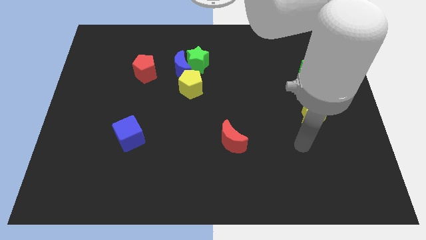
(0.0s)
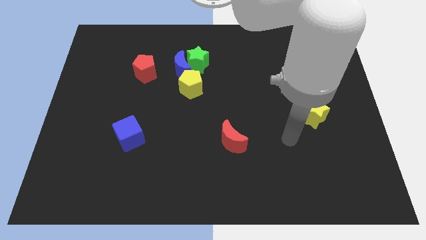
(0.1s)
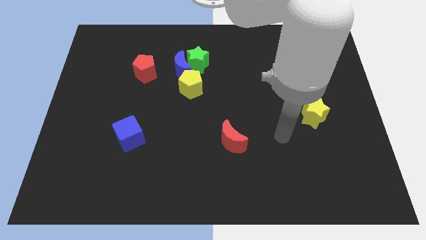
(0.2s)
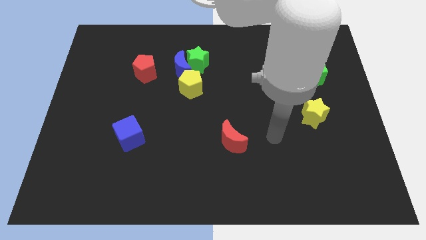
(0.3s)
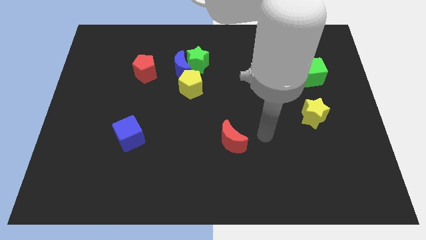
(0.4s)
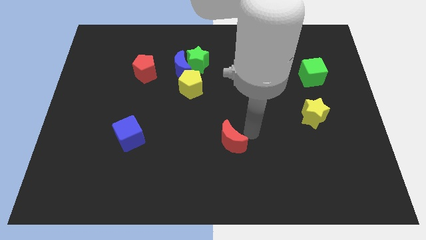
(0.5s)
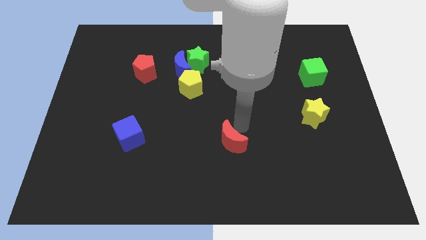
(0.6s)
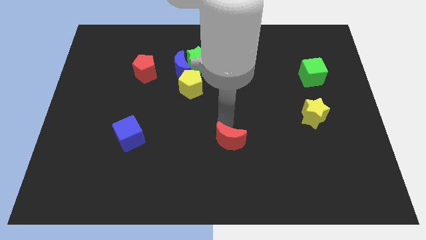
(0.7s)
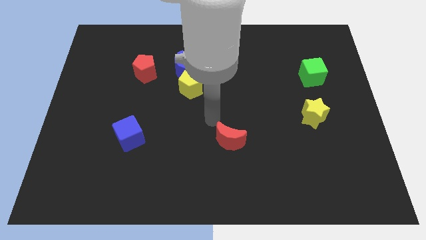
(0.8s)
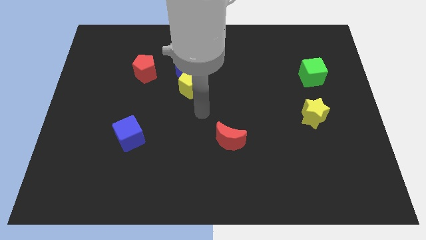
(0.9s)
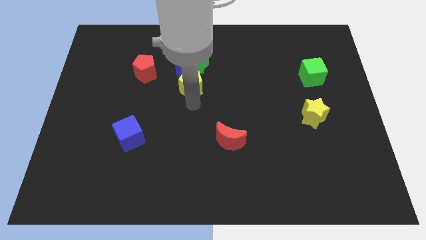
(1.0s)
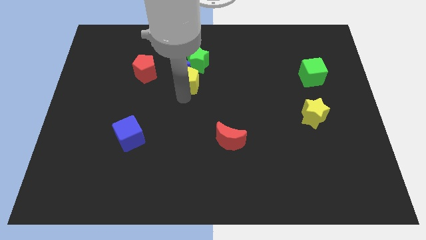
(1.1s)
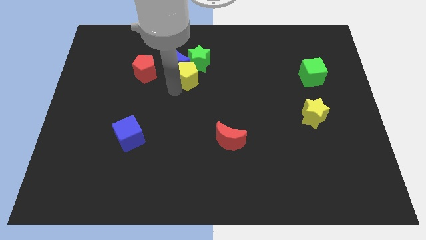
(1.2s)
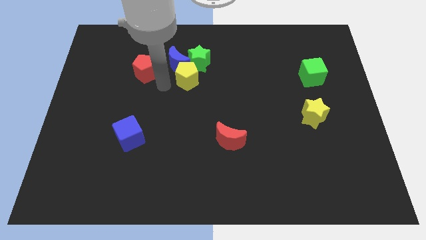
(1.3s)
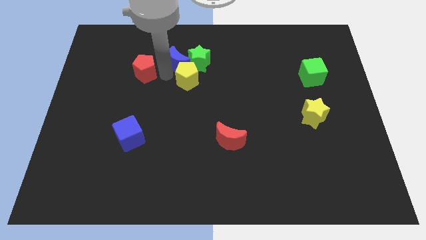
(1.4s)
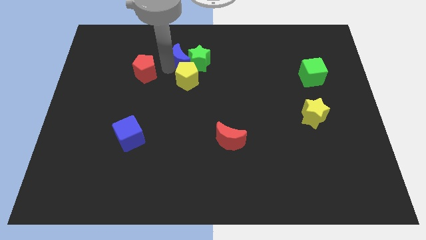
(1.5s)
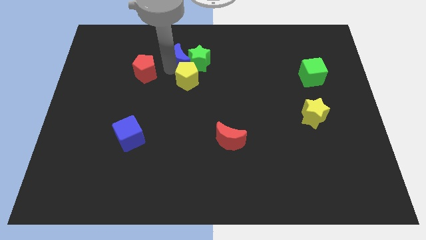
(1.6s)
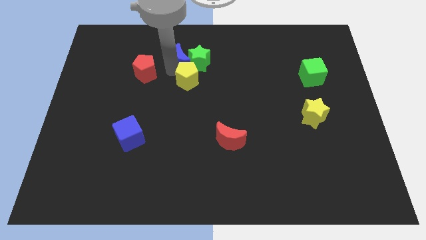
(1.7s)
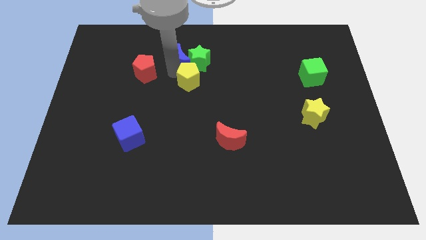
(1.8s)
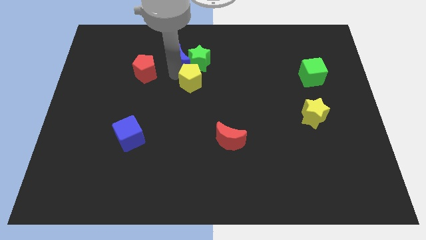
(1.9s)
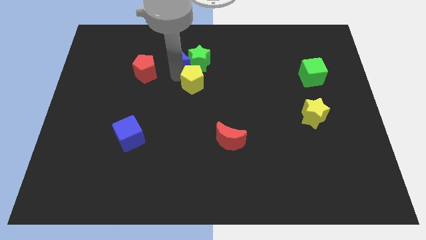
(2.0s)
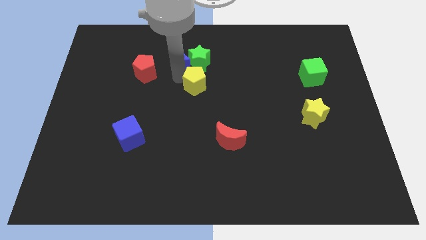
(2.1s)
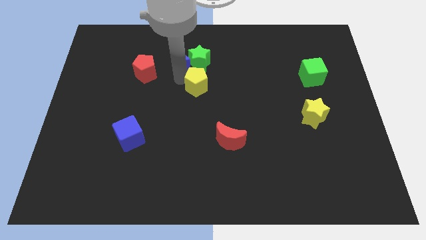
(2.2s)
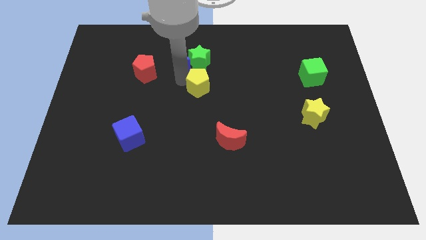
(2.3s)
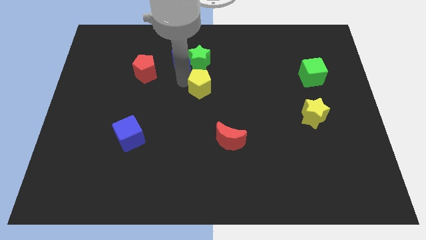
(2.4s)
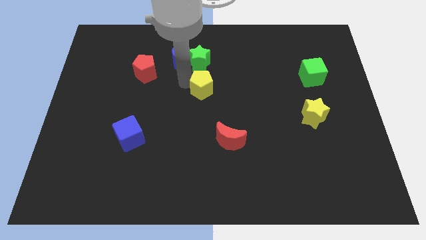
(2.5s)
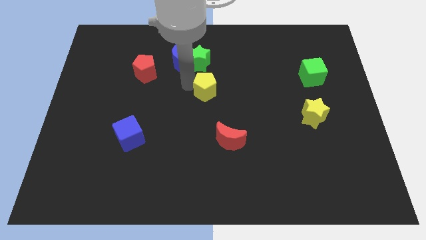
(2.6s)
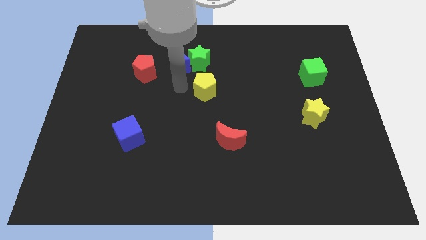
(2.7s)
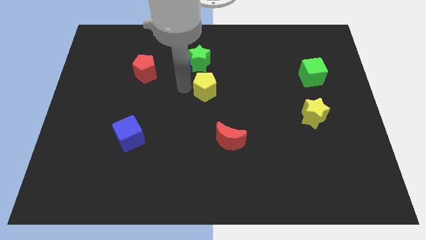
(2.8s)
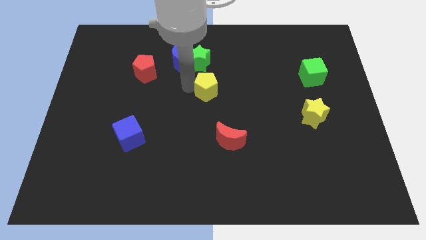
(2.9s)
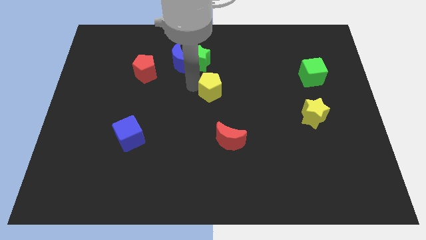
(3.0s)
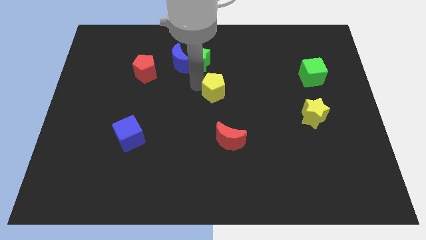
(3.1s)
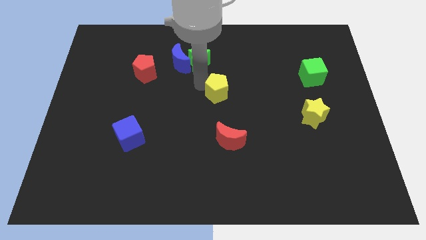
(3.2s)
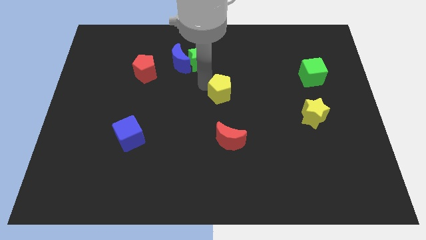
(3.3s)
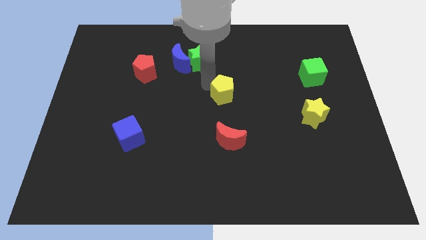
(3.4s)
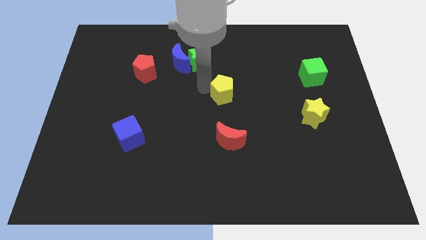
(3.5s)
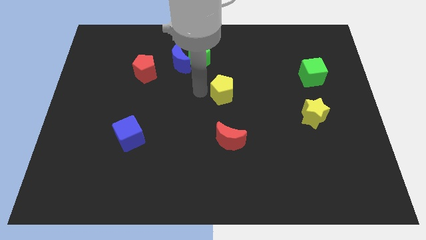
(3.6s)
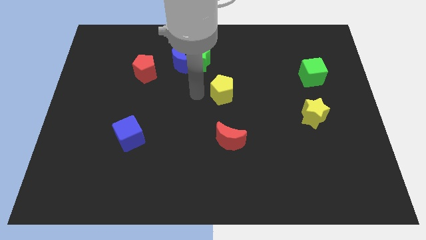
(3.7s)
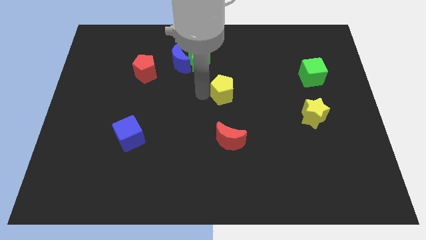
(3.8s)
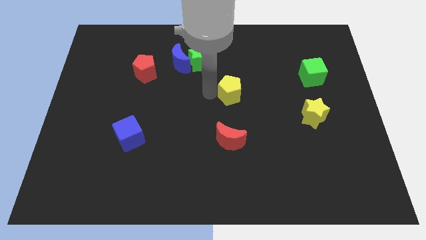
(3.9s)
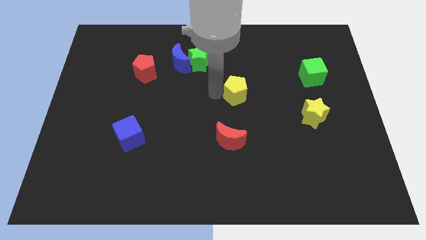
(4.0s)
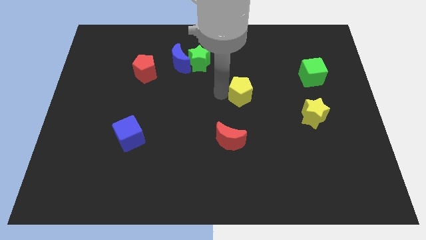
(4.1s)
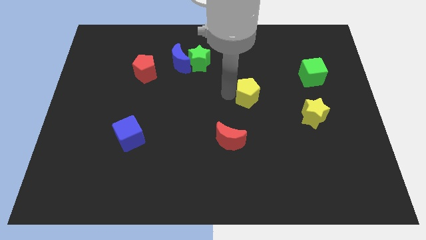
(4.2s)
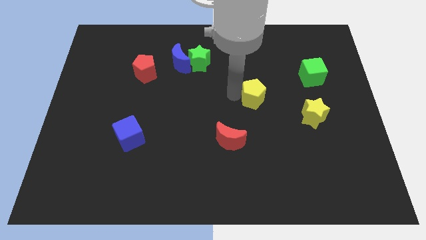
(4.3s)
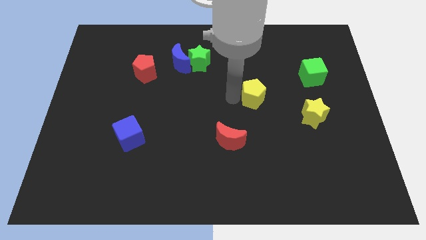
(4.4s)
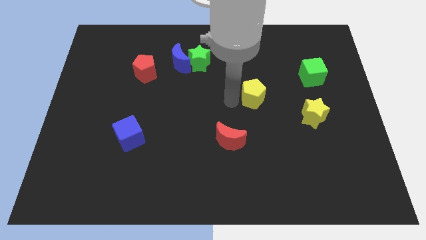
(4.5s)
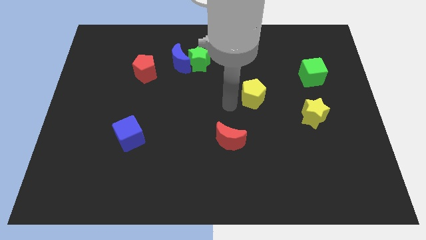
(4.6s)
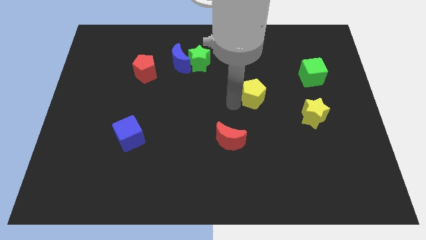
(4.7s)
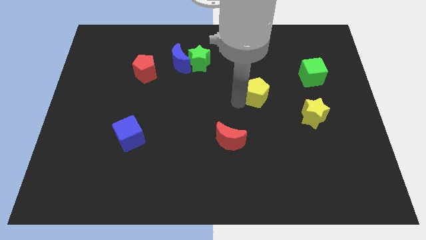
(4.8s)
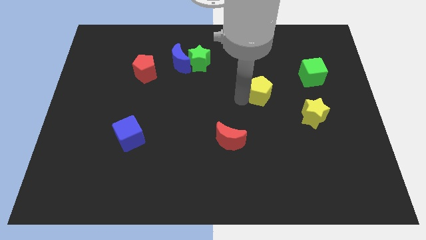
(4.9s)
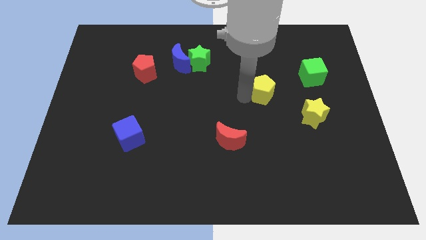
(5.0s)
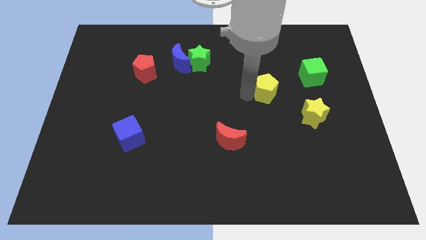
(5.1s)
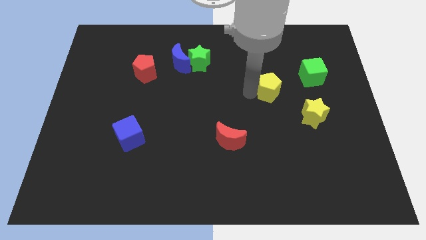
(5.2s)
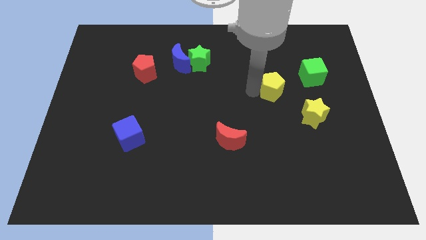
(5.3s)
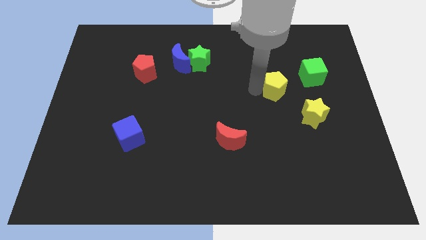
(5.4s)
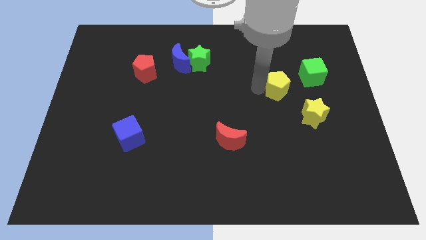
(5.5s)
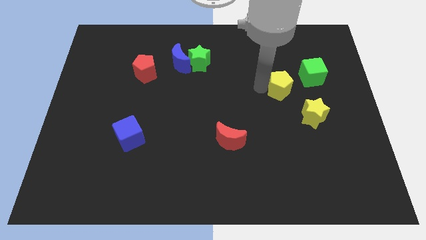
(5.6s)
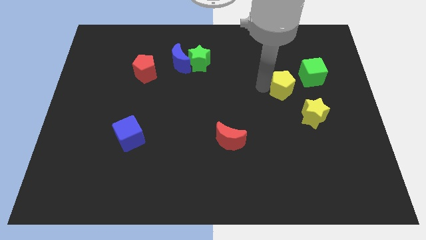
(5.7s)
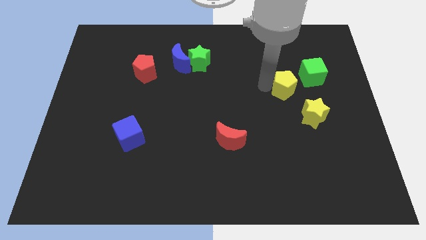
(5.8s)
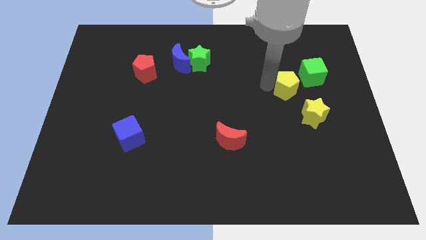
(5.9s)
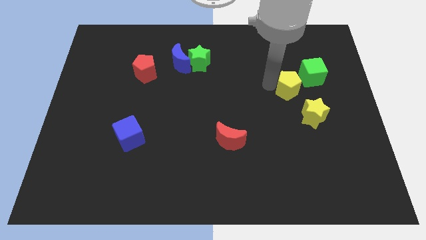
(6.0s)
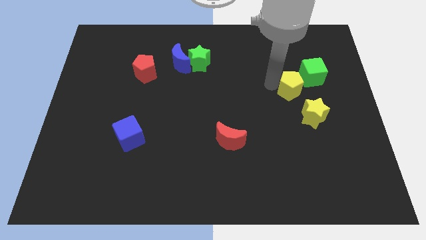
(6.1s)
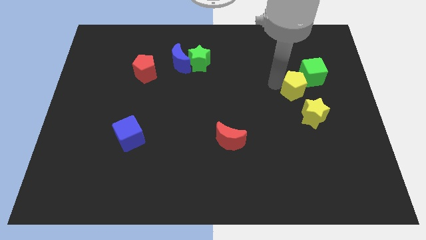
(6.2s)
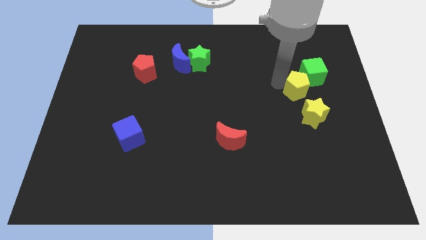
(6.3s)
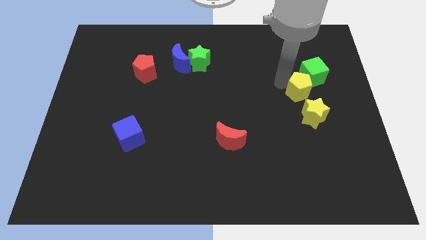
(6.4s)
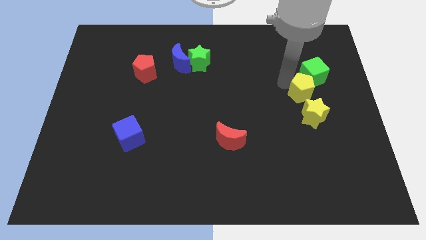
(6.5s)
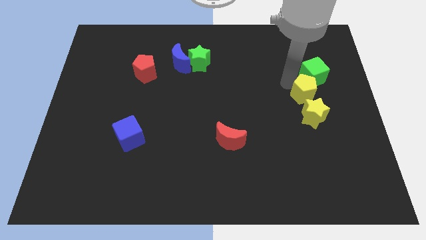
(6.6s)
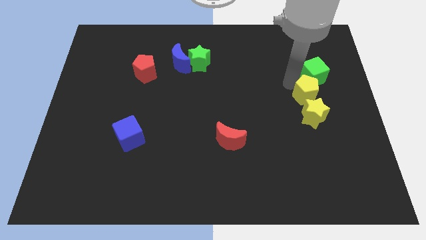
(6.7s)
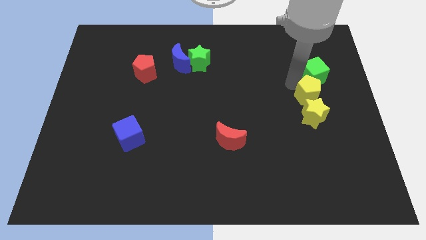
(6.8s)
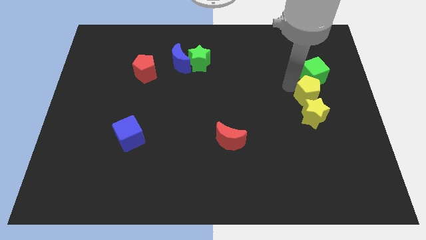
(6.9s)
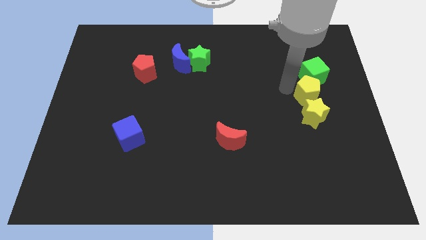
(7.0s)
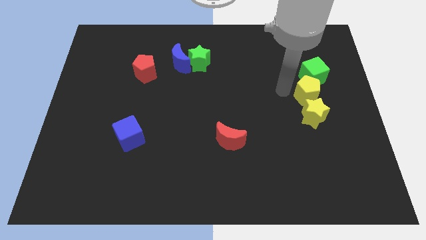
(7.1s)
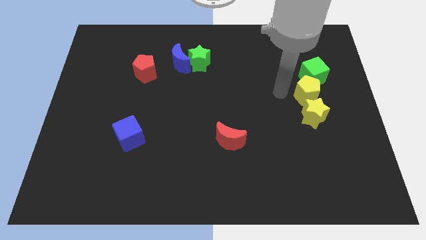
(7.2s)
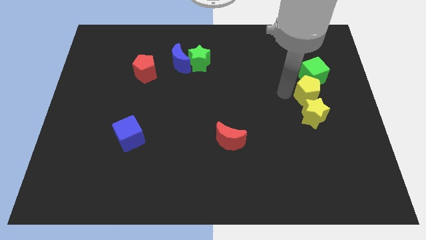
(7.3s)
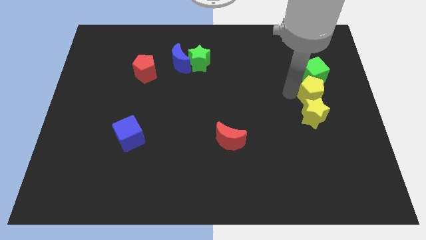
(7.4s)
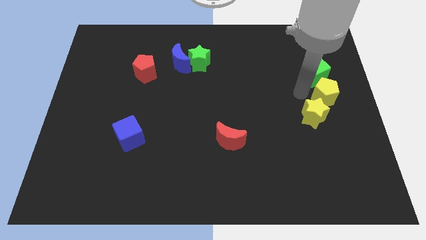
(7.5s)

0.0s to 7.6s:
move the yellow pentagon to the right side
